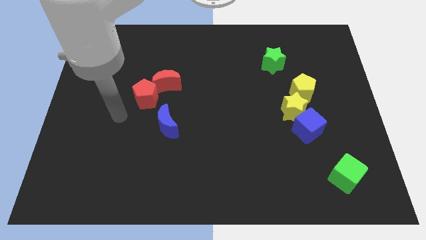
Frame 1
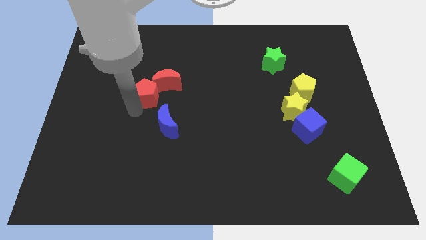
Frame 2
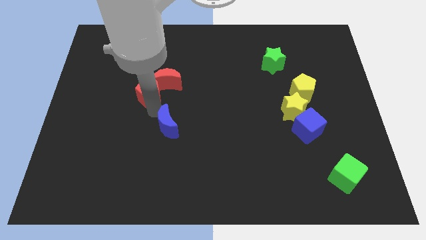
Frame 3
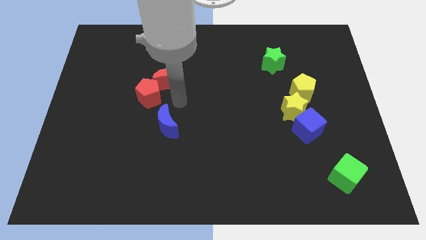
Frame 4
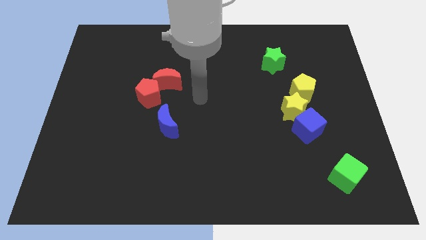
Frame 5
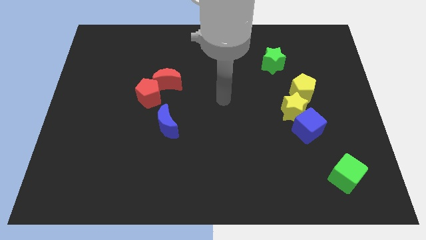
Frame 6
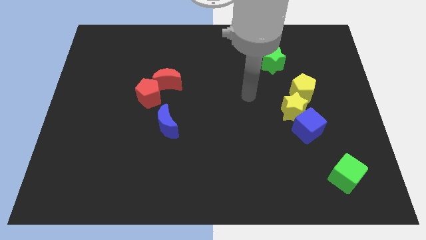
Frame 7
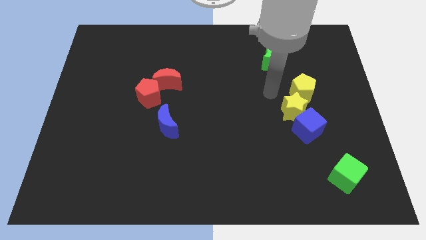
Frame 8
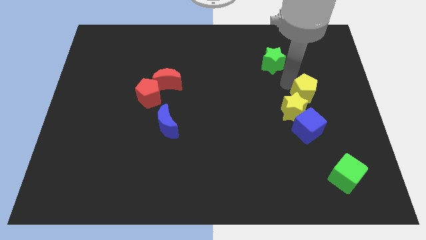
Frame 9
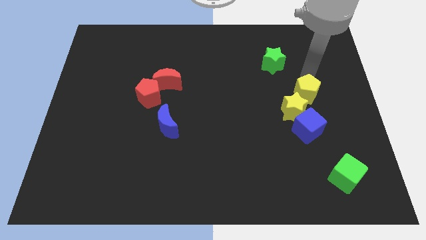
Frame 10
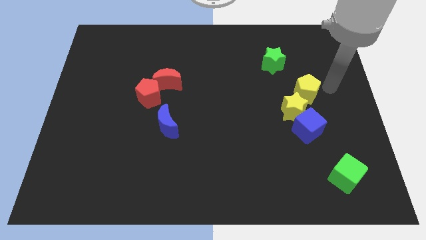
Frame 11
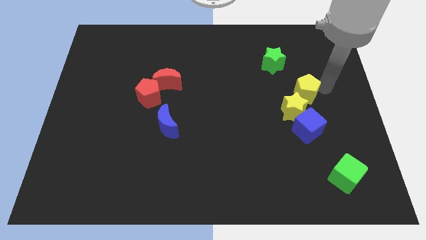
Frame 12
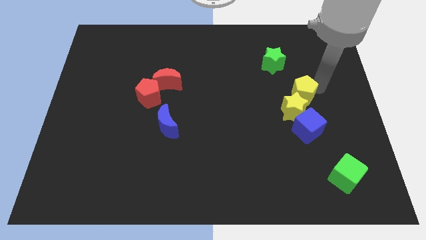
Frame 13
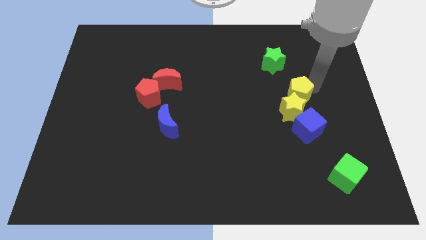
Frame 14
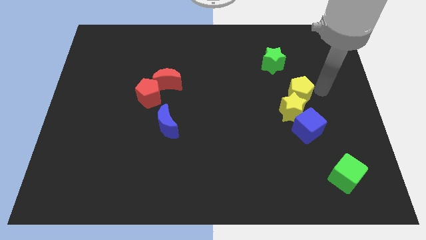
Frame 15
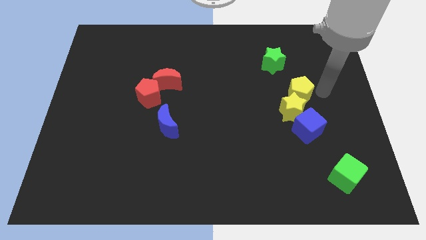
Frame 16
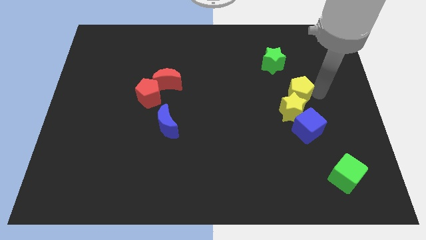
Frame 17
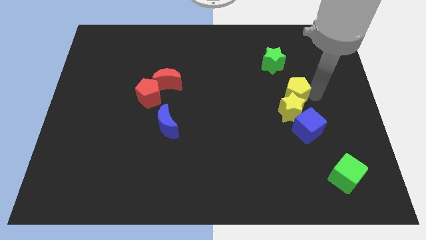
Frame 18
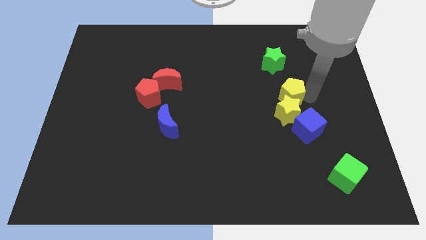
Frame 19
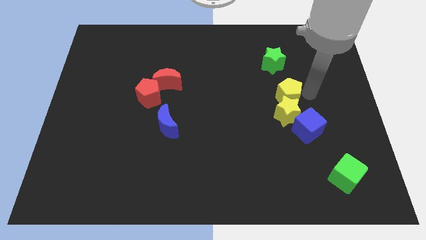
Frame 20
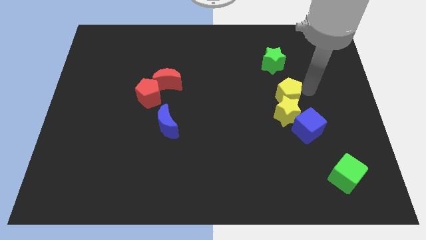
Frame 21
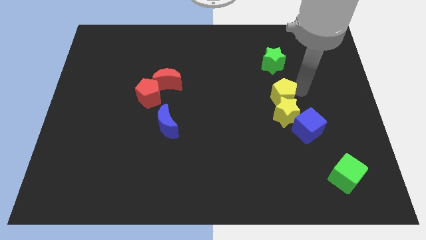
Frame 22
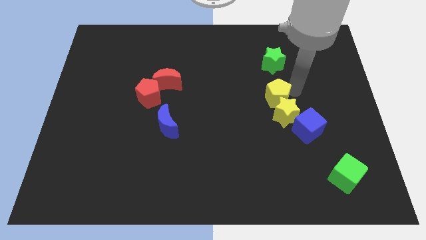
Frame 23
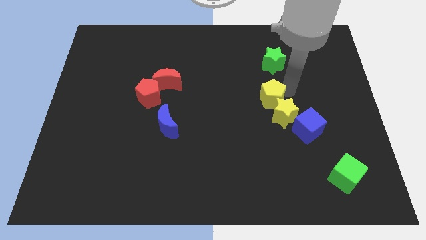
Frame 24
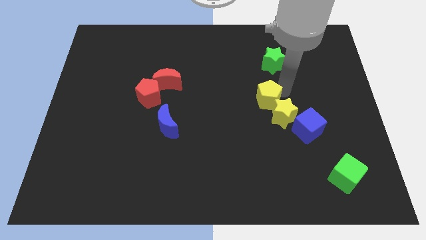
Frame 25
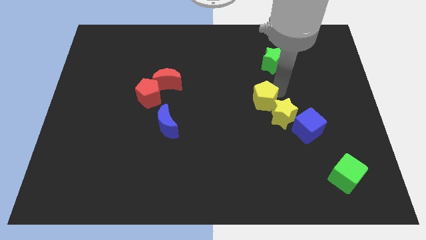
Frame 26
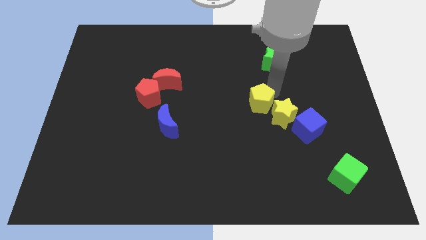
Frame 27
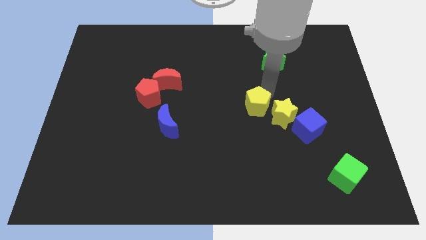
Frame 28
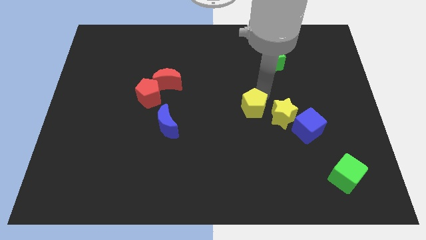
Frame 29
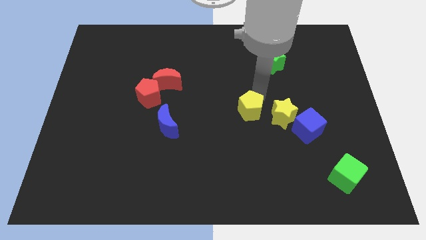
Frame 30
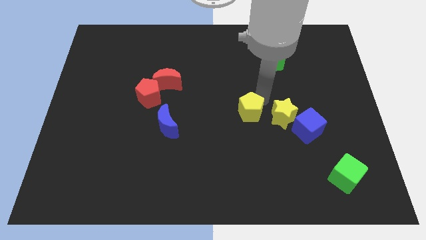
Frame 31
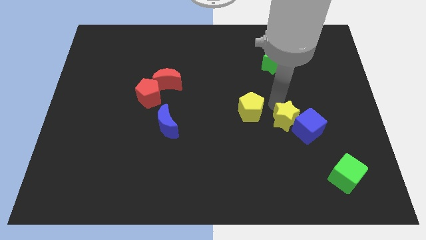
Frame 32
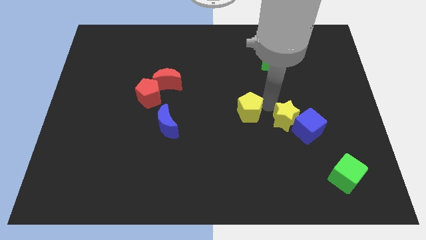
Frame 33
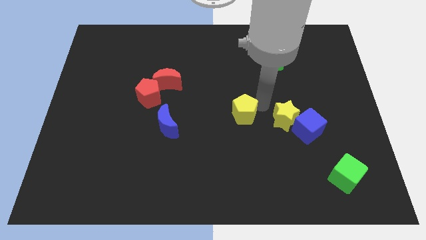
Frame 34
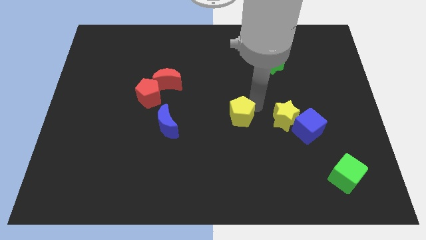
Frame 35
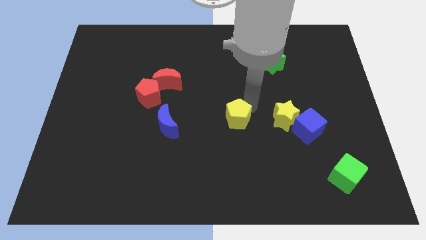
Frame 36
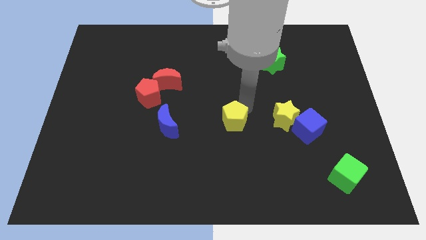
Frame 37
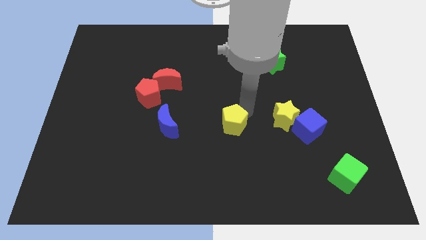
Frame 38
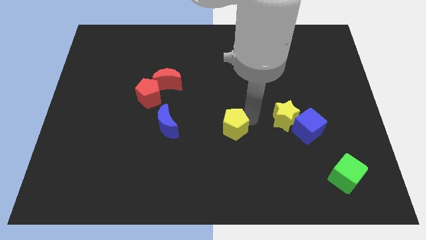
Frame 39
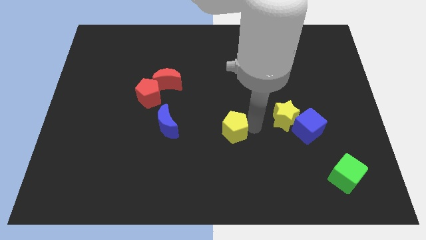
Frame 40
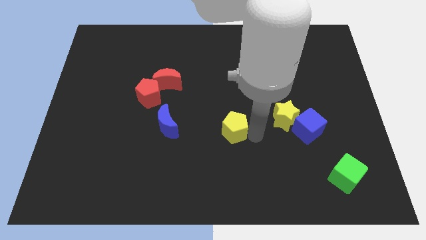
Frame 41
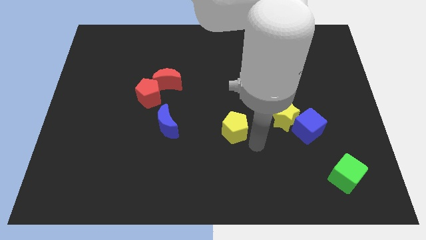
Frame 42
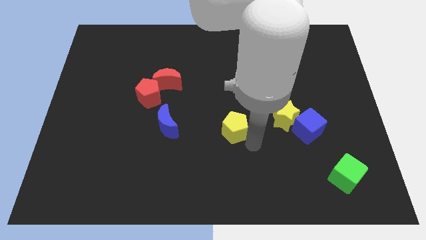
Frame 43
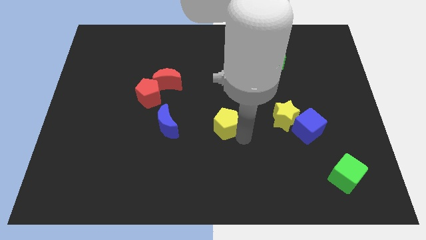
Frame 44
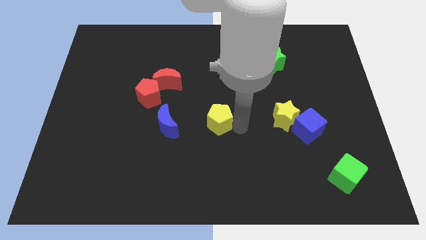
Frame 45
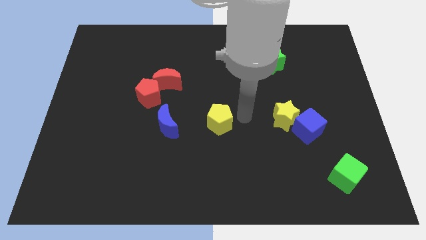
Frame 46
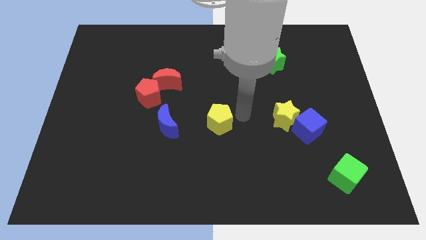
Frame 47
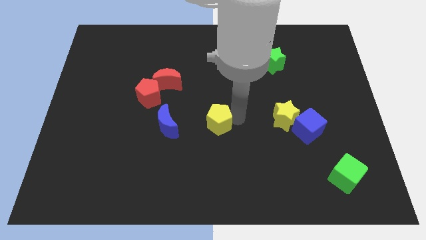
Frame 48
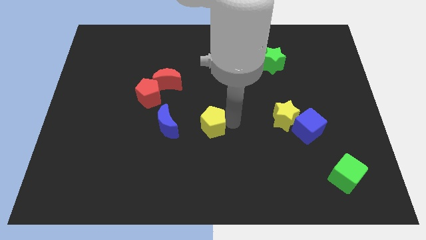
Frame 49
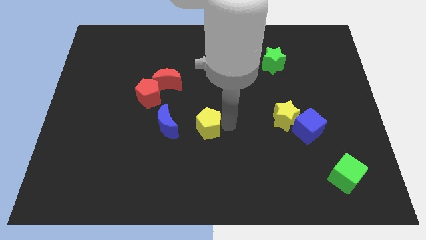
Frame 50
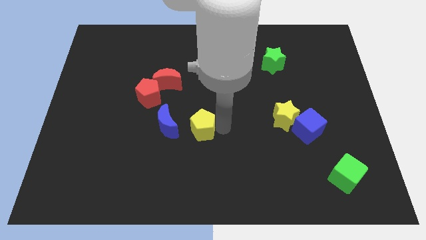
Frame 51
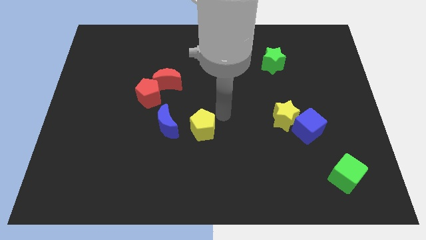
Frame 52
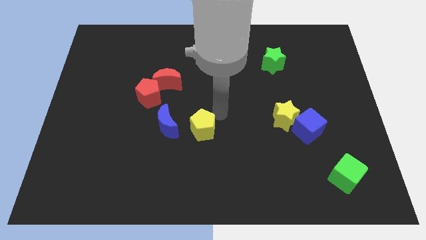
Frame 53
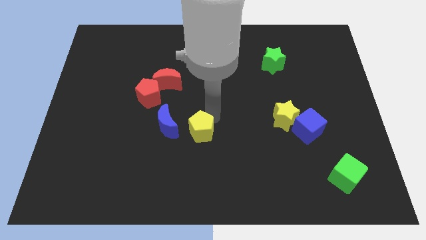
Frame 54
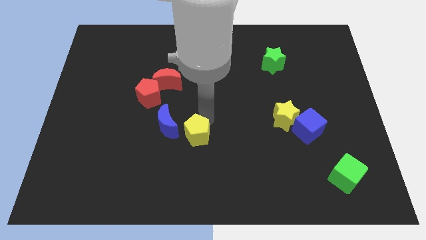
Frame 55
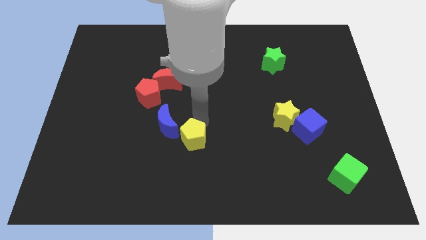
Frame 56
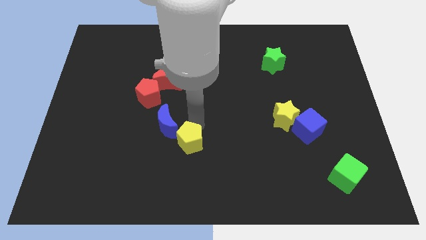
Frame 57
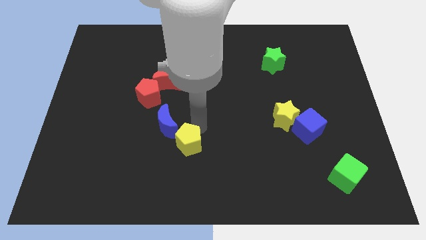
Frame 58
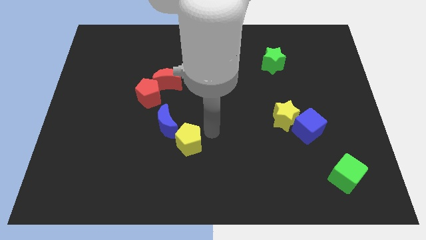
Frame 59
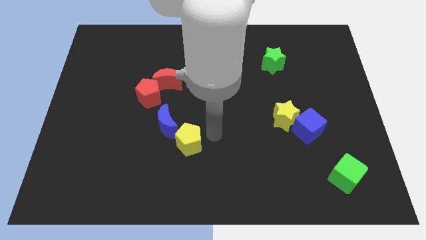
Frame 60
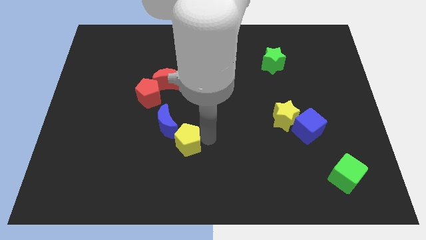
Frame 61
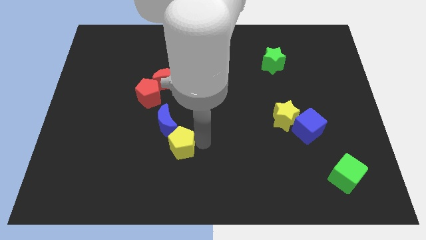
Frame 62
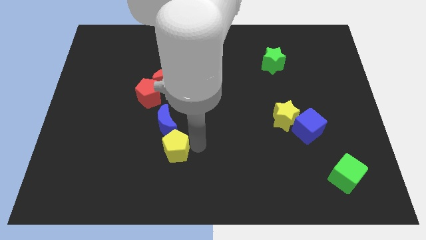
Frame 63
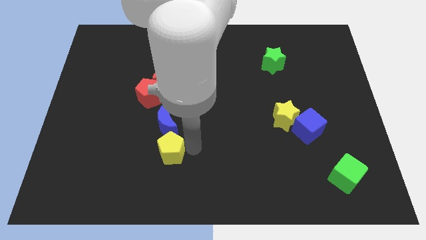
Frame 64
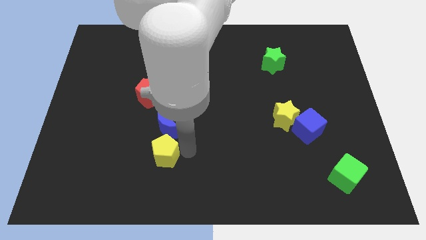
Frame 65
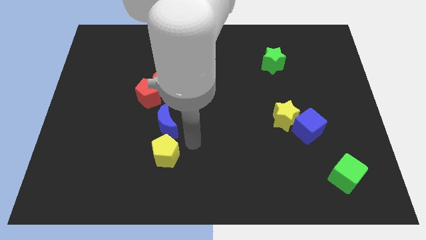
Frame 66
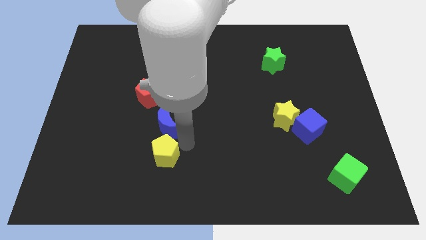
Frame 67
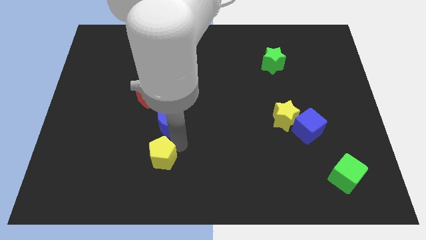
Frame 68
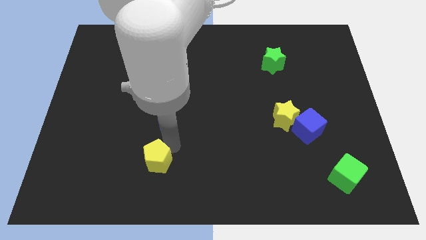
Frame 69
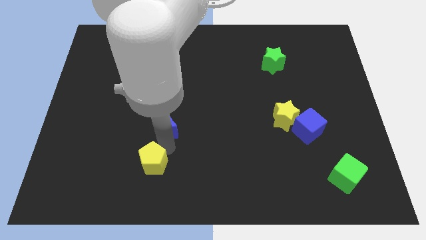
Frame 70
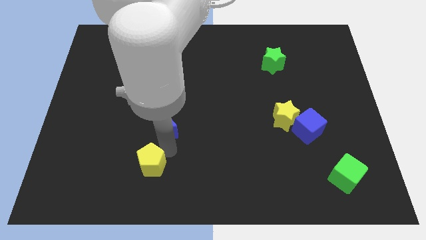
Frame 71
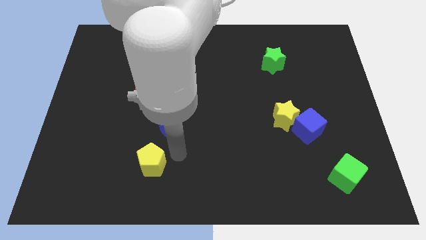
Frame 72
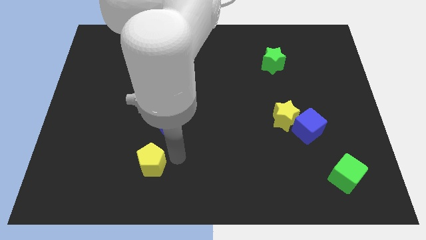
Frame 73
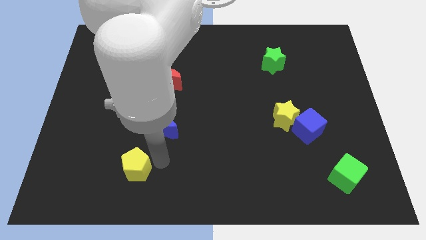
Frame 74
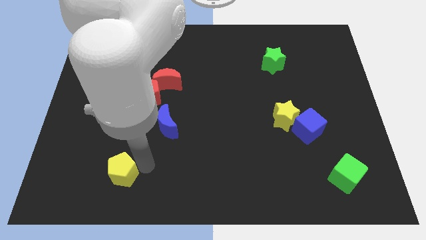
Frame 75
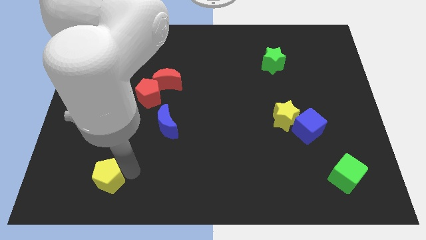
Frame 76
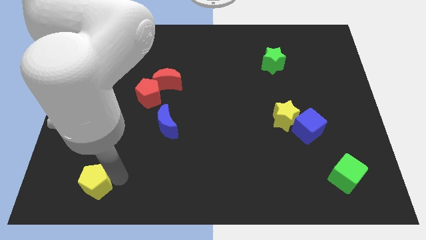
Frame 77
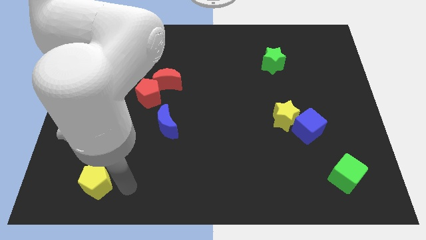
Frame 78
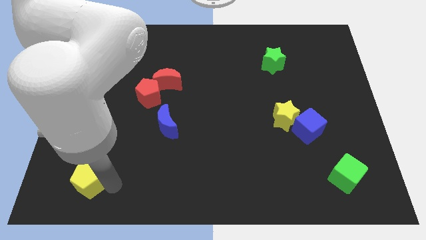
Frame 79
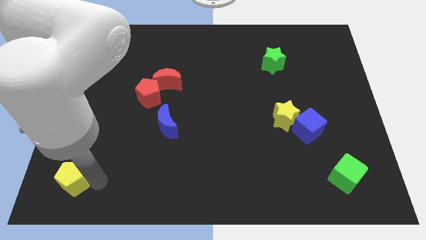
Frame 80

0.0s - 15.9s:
slide the yellow pentagon to the bottom left
